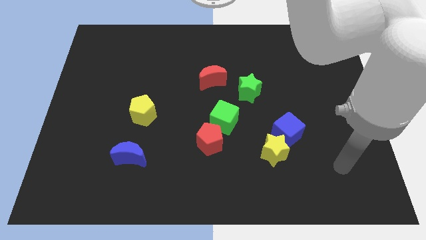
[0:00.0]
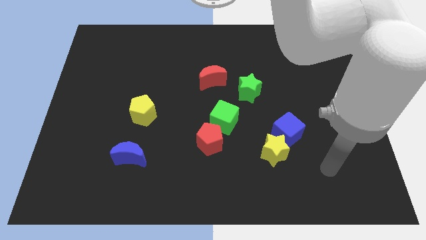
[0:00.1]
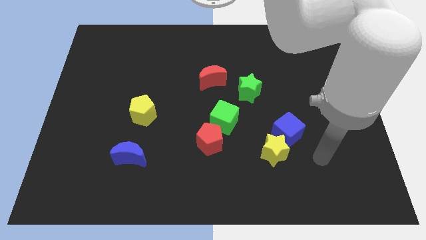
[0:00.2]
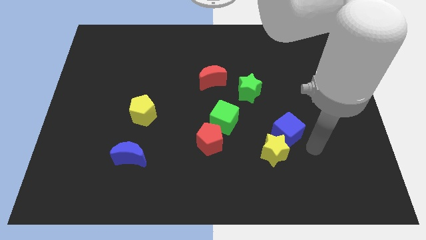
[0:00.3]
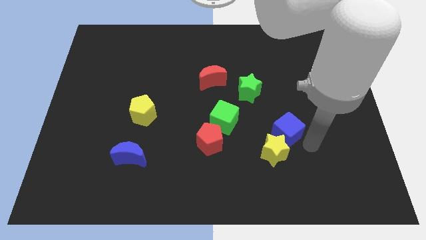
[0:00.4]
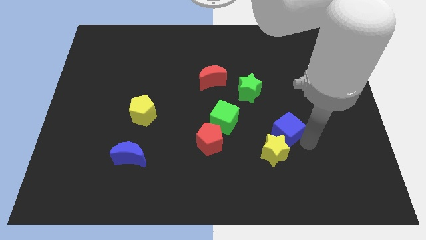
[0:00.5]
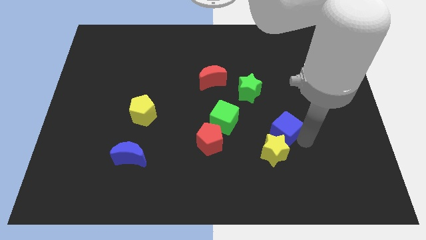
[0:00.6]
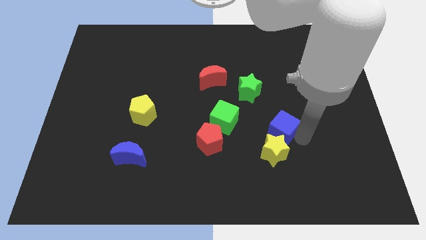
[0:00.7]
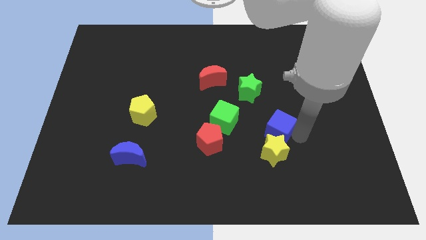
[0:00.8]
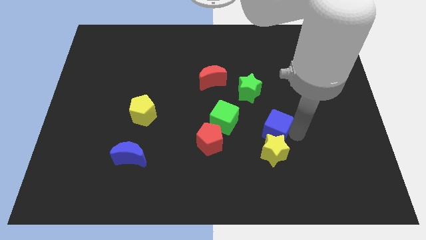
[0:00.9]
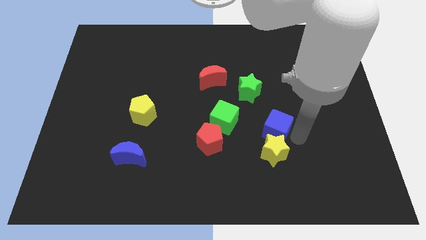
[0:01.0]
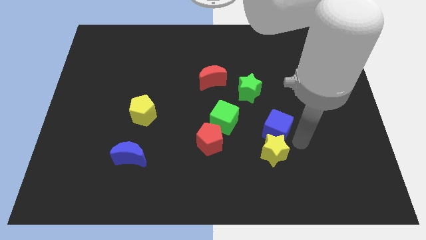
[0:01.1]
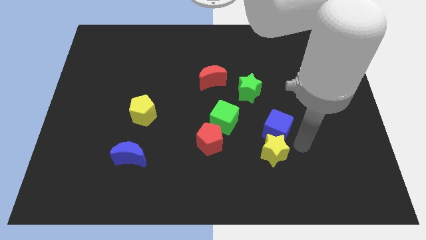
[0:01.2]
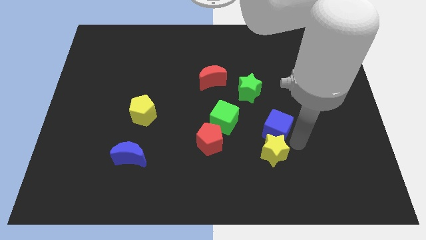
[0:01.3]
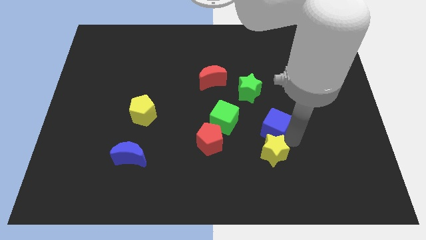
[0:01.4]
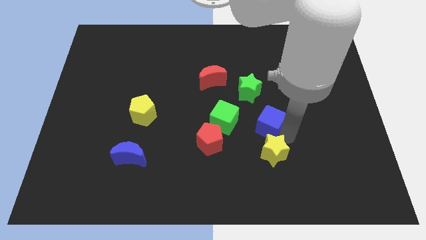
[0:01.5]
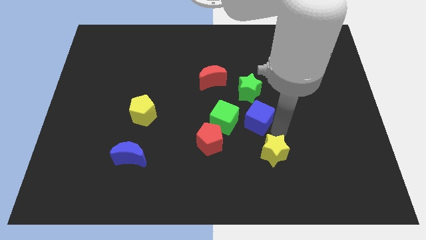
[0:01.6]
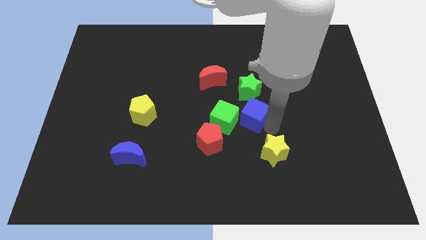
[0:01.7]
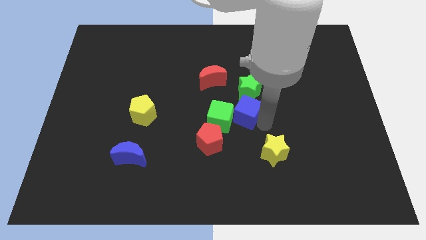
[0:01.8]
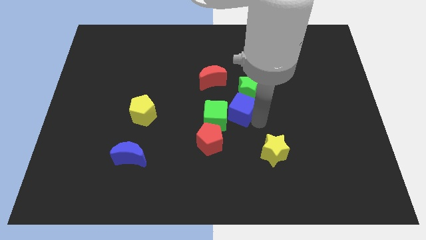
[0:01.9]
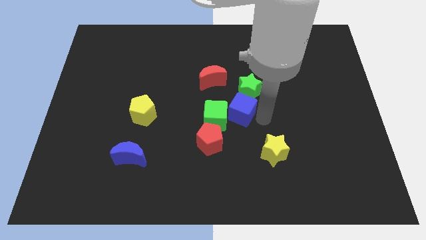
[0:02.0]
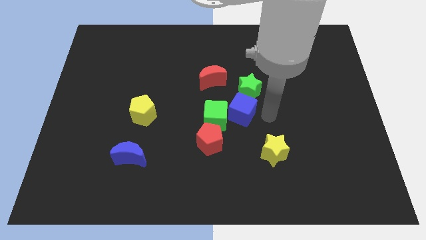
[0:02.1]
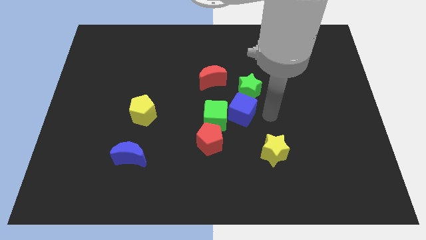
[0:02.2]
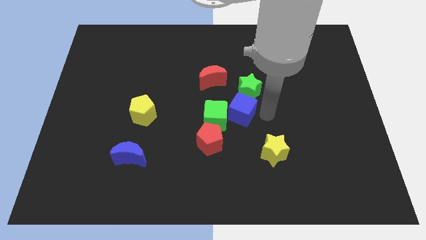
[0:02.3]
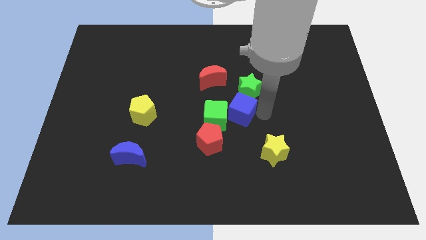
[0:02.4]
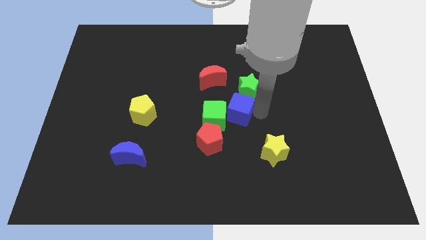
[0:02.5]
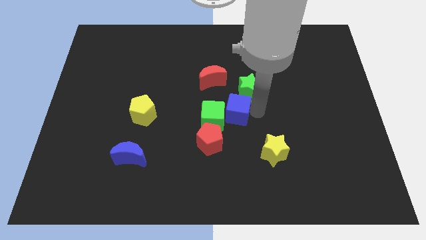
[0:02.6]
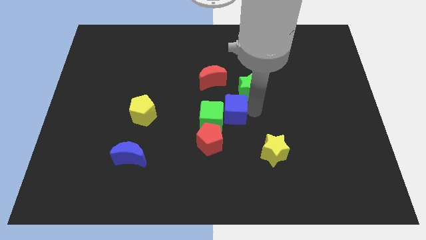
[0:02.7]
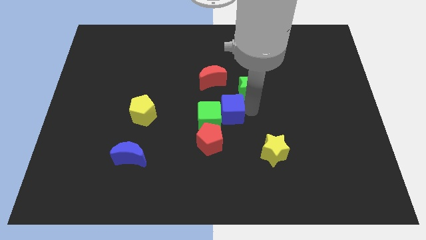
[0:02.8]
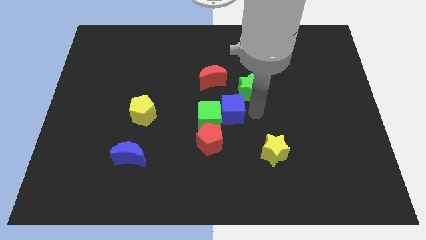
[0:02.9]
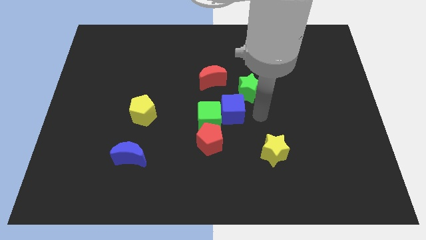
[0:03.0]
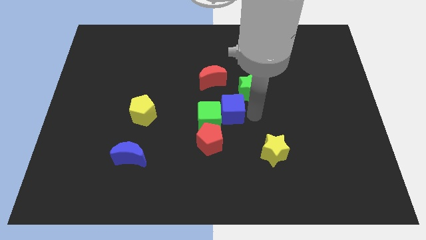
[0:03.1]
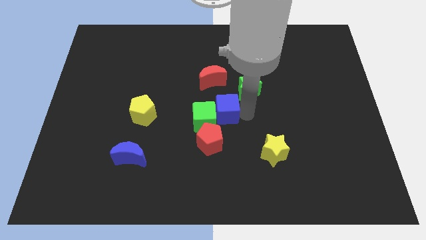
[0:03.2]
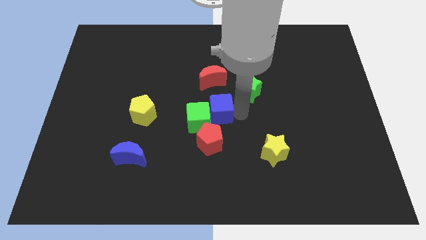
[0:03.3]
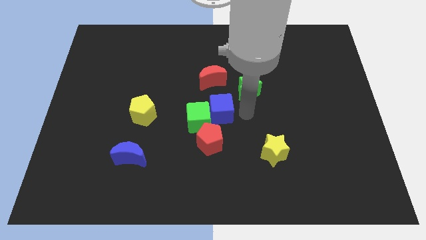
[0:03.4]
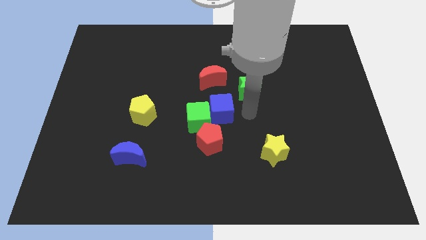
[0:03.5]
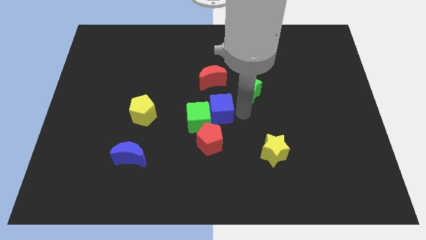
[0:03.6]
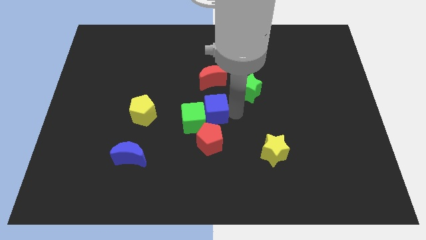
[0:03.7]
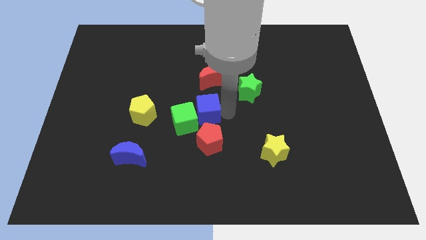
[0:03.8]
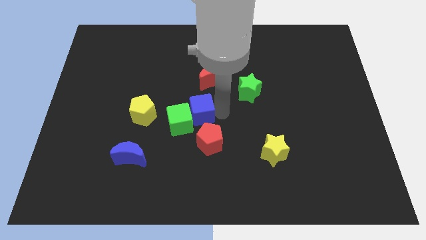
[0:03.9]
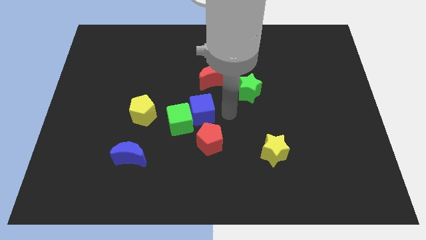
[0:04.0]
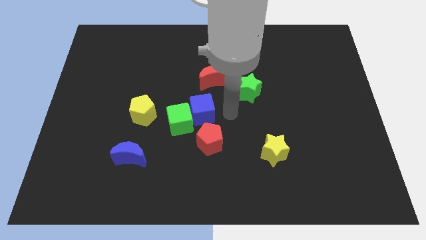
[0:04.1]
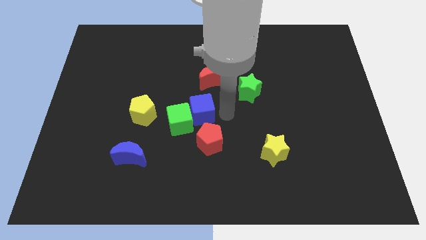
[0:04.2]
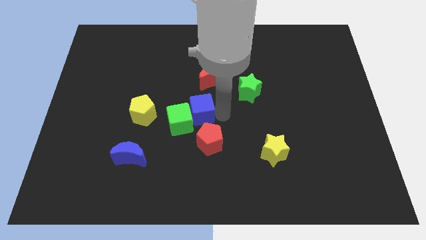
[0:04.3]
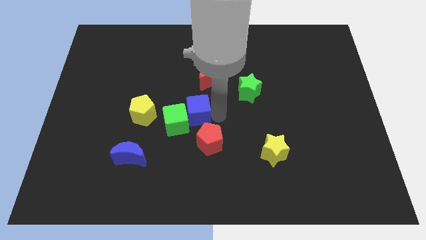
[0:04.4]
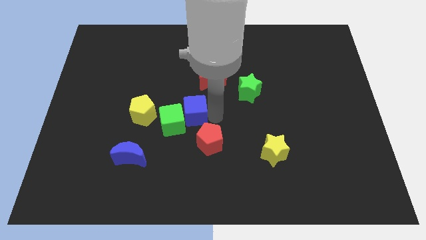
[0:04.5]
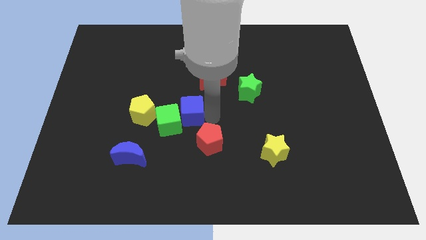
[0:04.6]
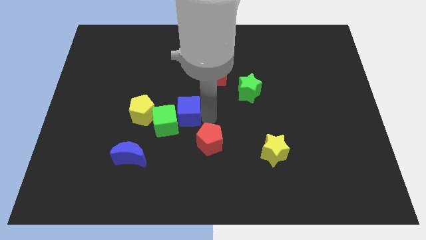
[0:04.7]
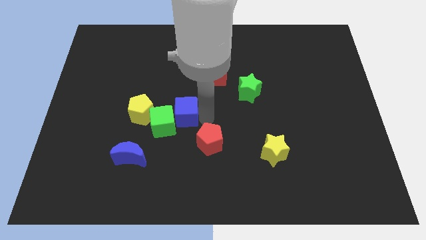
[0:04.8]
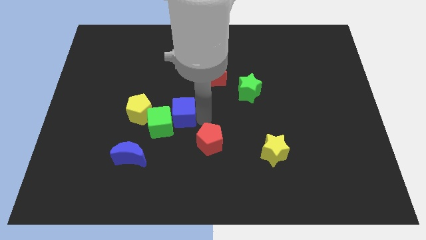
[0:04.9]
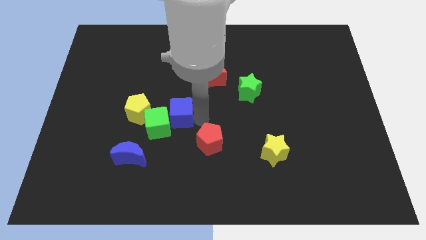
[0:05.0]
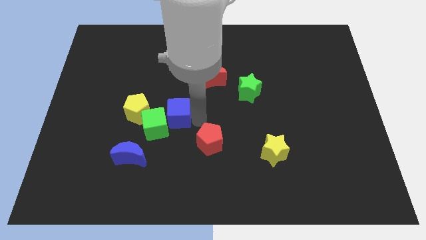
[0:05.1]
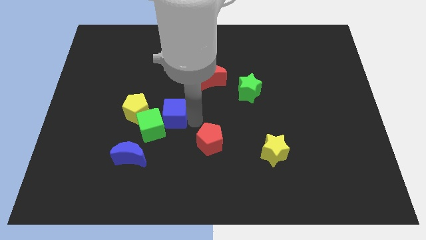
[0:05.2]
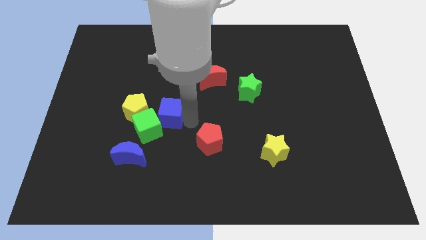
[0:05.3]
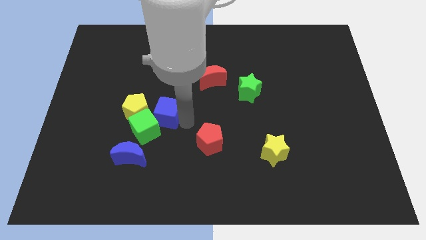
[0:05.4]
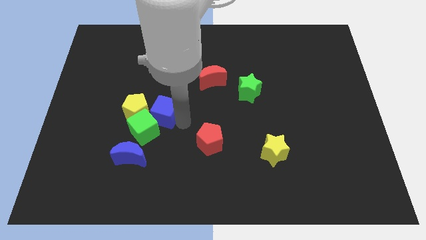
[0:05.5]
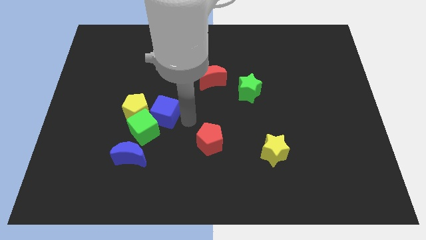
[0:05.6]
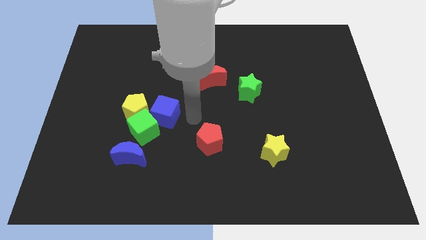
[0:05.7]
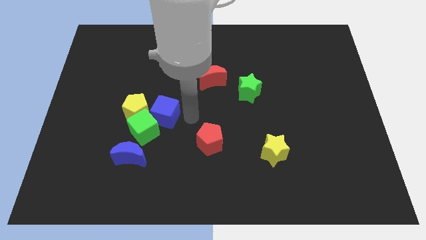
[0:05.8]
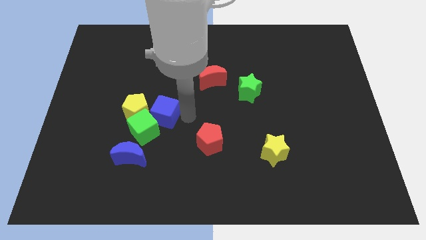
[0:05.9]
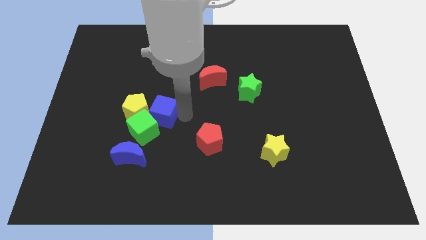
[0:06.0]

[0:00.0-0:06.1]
move the blue cube to the yellow pentagon

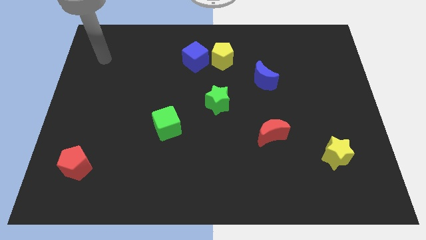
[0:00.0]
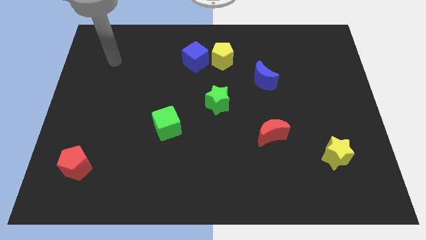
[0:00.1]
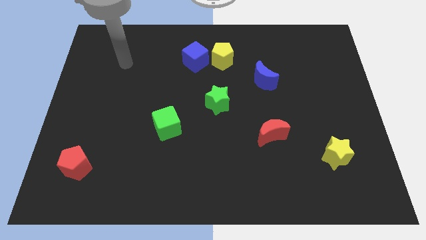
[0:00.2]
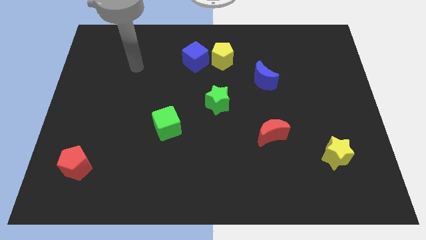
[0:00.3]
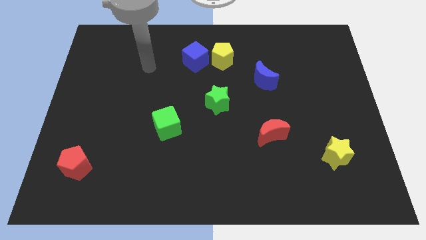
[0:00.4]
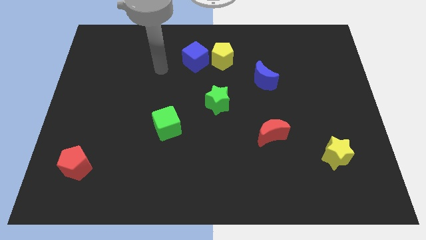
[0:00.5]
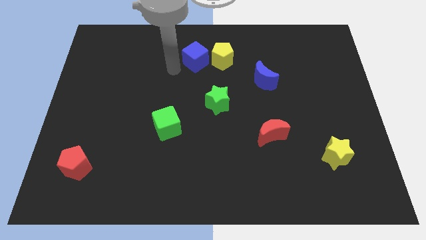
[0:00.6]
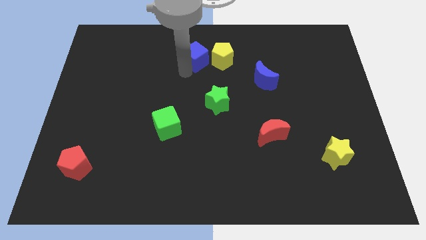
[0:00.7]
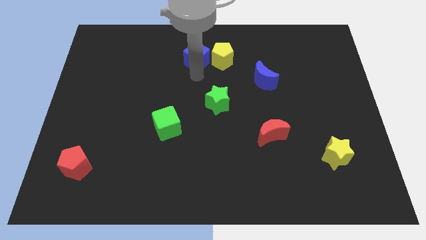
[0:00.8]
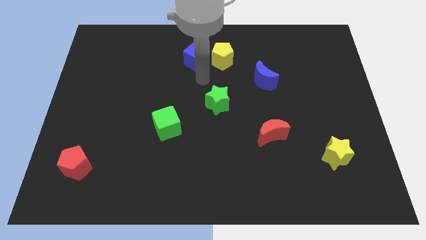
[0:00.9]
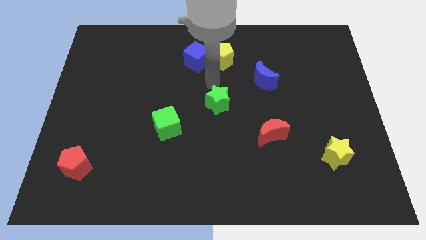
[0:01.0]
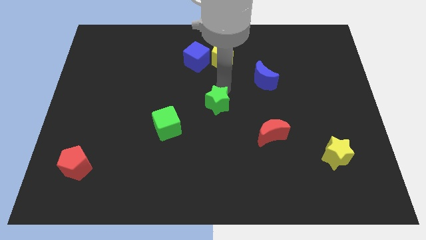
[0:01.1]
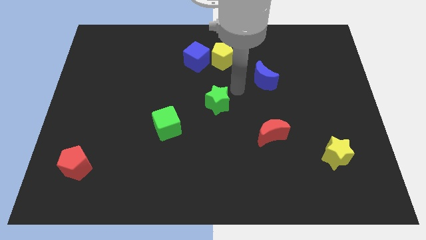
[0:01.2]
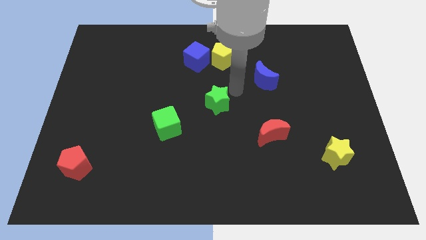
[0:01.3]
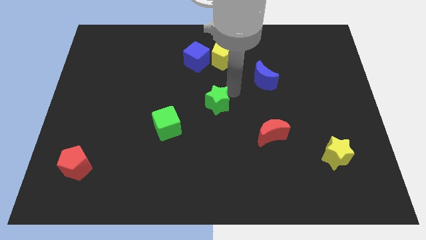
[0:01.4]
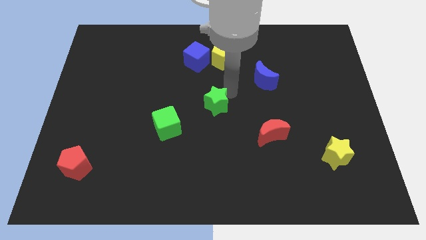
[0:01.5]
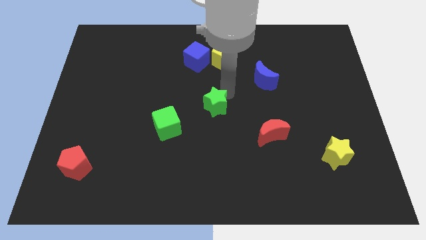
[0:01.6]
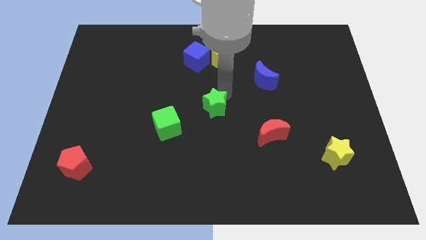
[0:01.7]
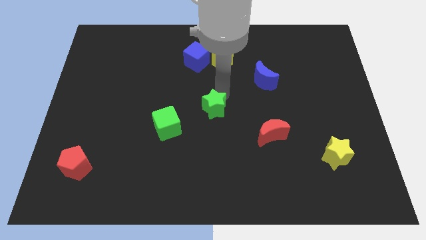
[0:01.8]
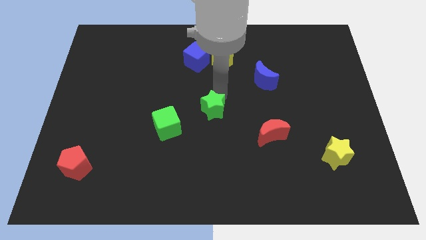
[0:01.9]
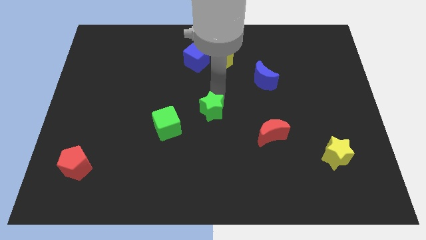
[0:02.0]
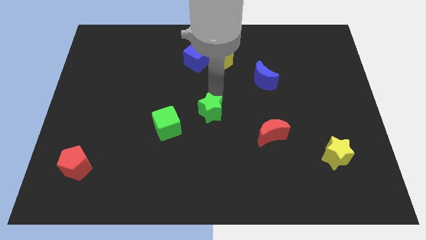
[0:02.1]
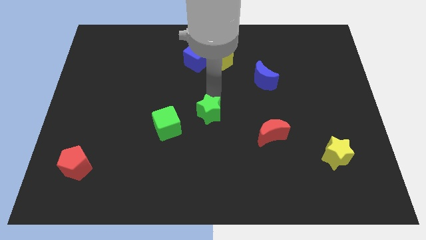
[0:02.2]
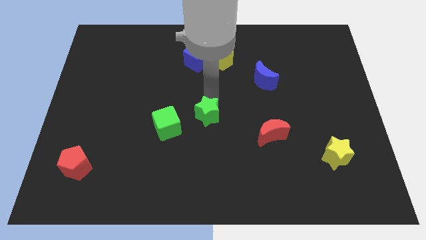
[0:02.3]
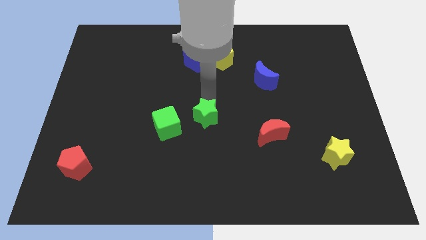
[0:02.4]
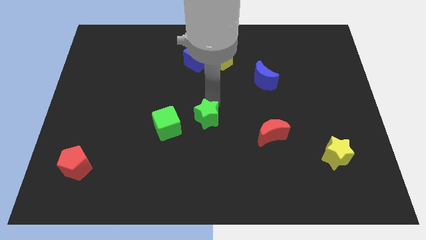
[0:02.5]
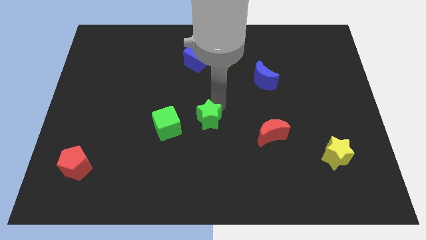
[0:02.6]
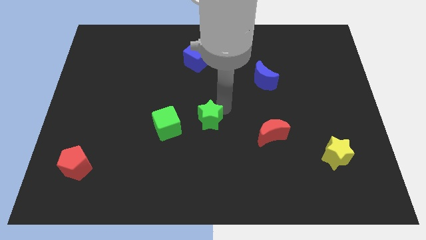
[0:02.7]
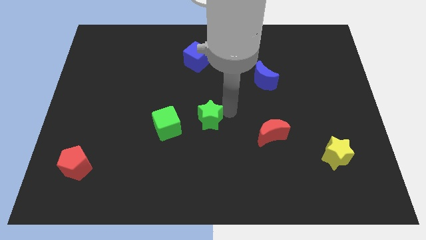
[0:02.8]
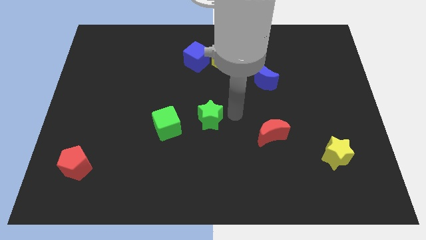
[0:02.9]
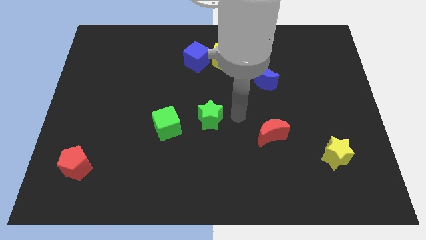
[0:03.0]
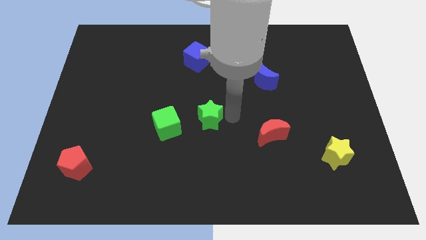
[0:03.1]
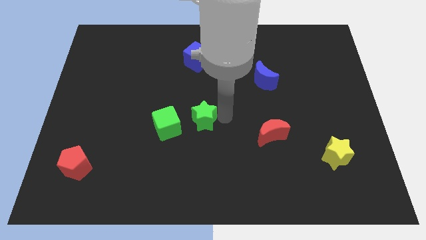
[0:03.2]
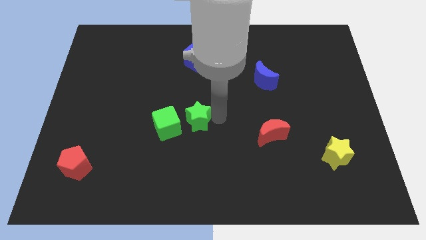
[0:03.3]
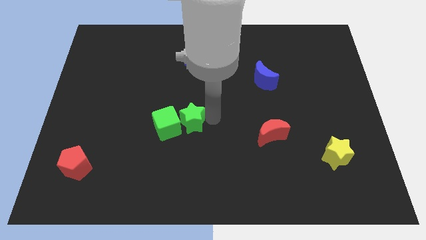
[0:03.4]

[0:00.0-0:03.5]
push the green star close to the green cube
